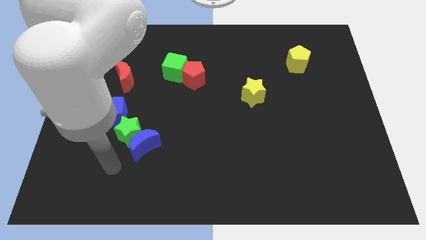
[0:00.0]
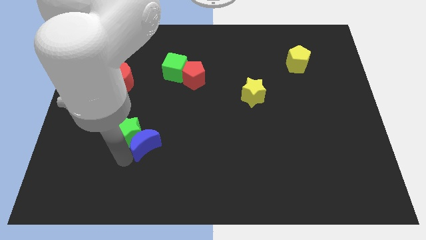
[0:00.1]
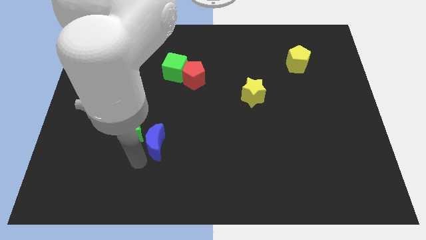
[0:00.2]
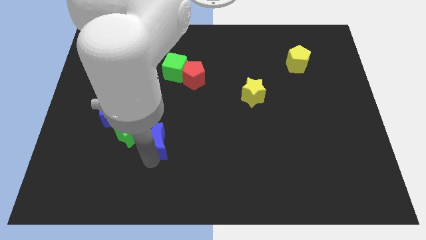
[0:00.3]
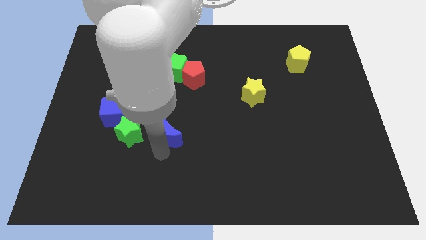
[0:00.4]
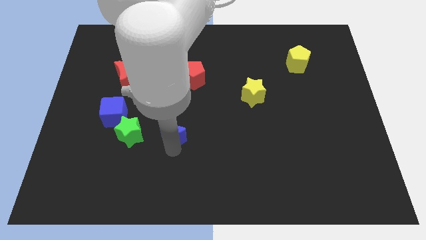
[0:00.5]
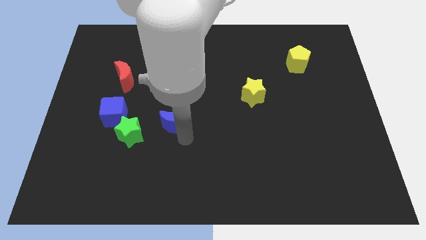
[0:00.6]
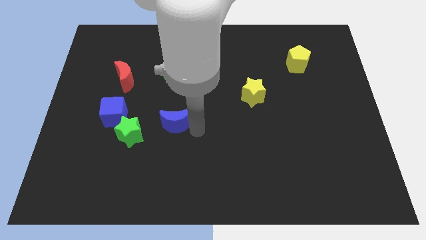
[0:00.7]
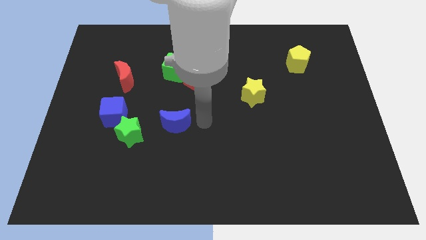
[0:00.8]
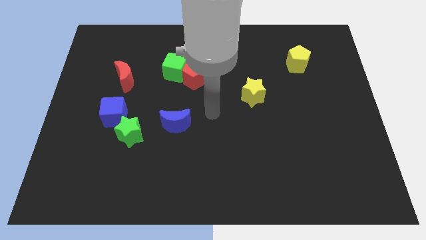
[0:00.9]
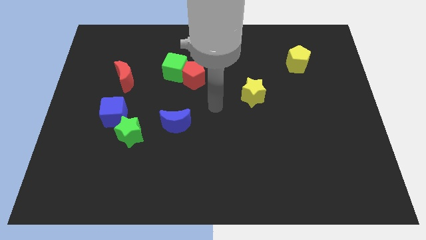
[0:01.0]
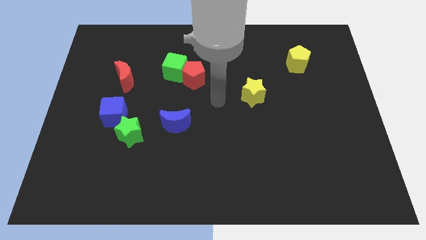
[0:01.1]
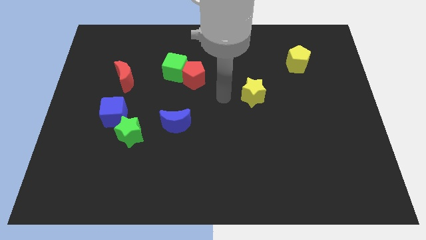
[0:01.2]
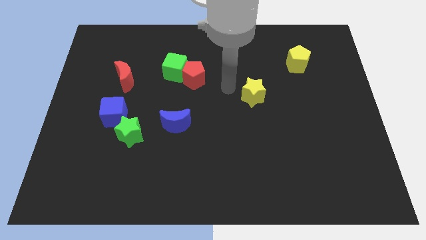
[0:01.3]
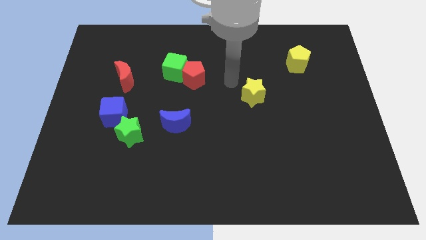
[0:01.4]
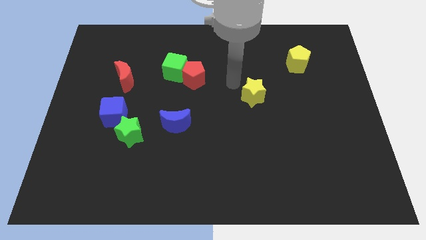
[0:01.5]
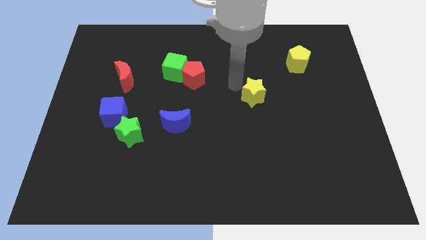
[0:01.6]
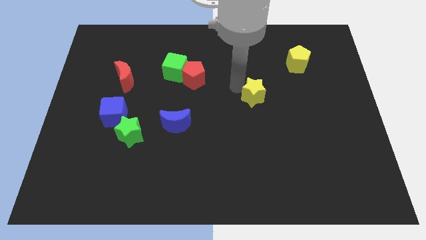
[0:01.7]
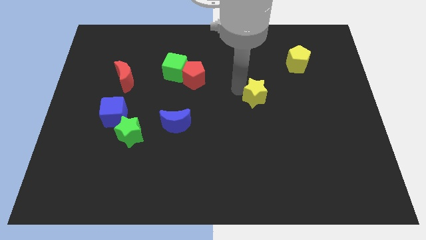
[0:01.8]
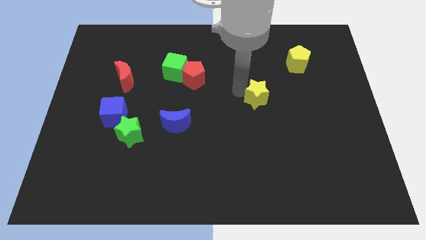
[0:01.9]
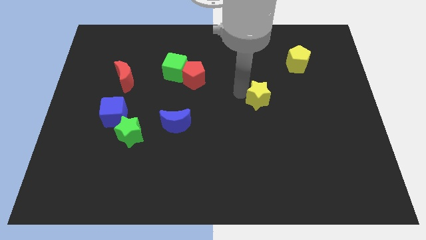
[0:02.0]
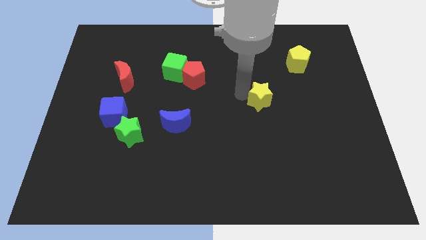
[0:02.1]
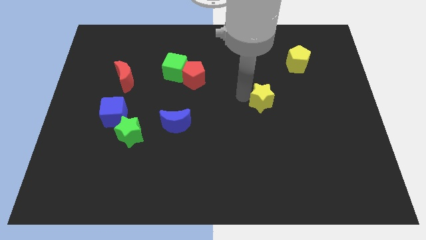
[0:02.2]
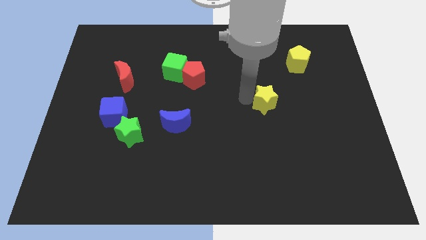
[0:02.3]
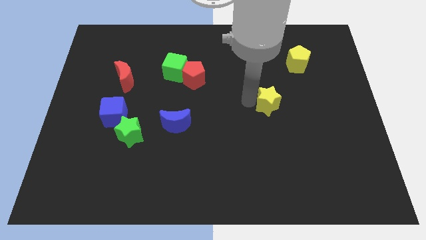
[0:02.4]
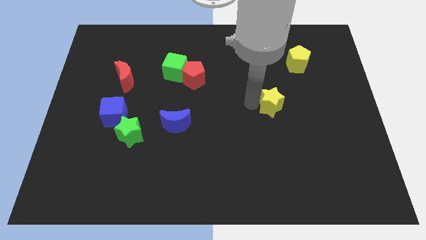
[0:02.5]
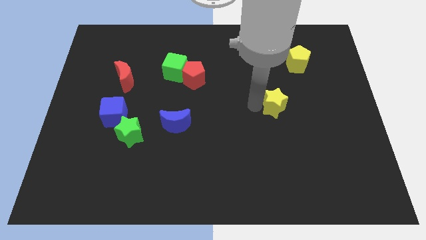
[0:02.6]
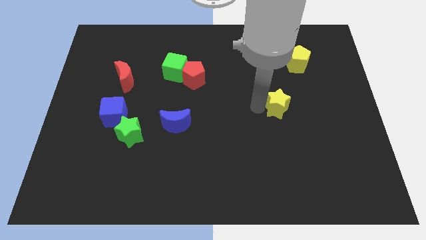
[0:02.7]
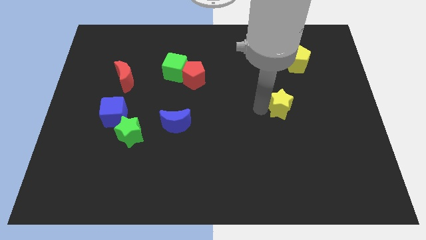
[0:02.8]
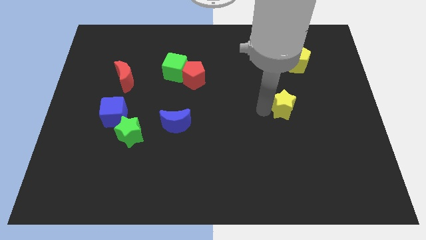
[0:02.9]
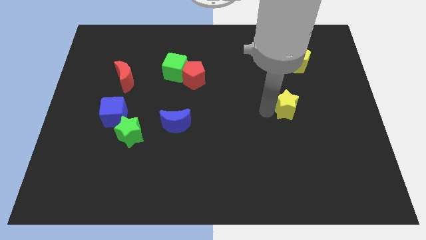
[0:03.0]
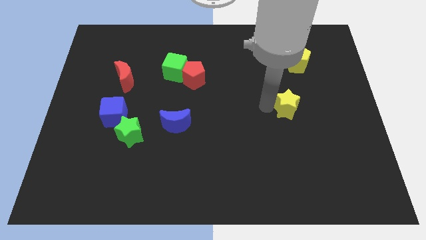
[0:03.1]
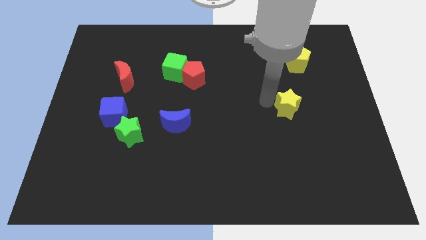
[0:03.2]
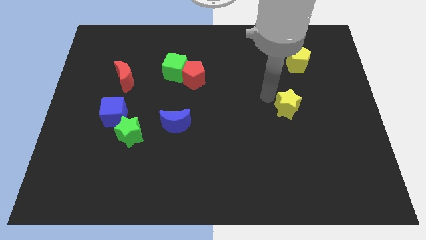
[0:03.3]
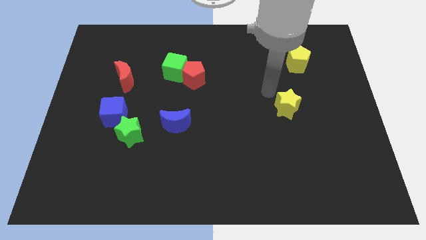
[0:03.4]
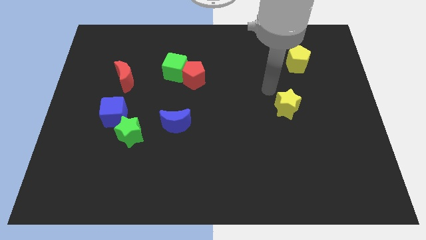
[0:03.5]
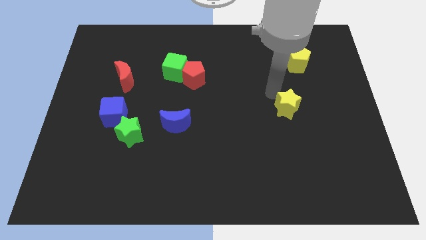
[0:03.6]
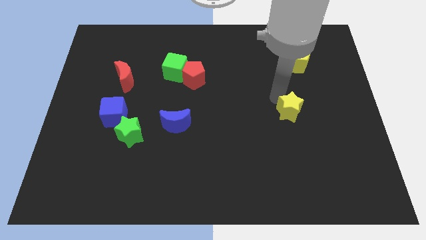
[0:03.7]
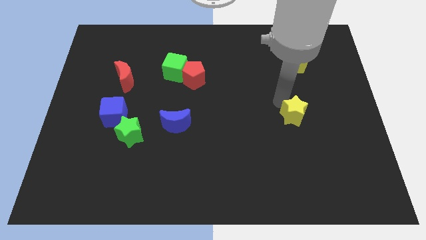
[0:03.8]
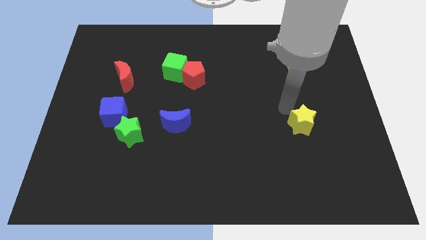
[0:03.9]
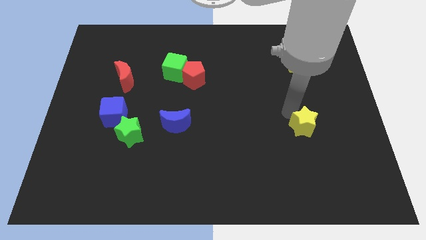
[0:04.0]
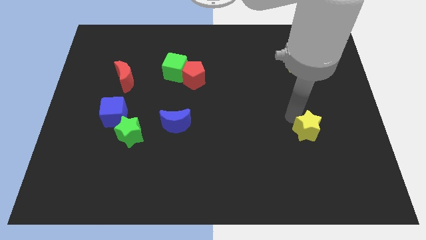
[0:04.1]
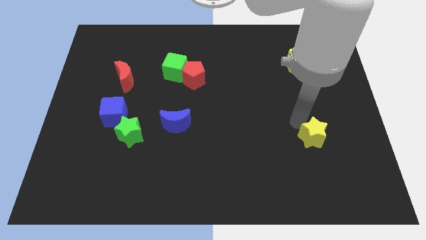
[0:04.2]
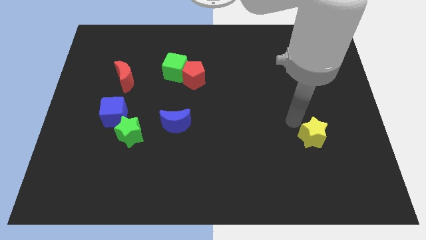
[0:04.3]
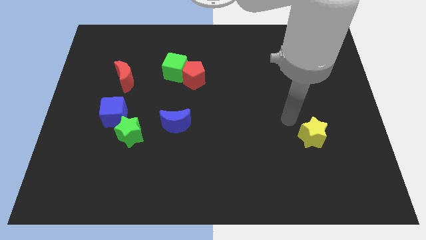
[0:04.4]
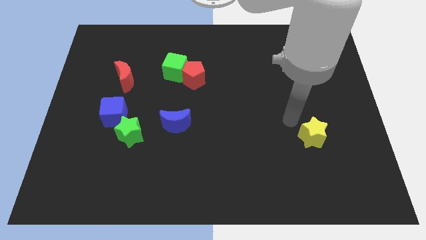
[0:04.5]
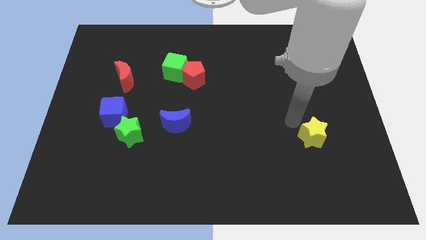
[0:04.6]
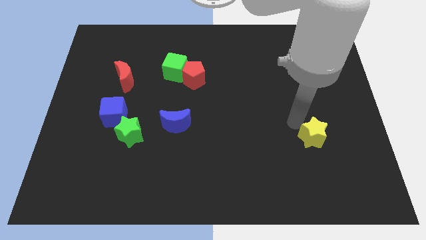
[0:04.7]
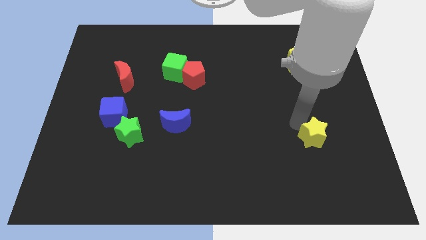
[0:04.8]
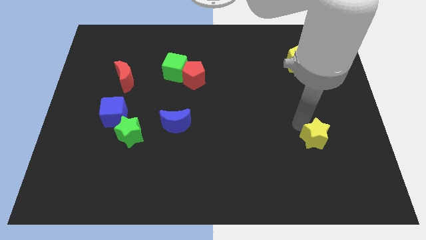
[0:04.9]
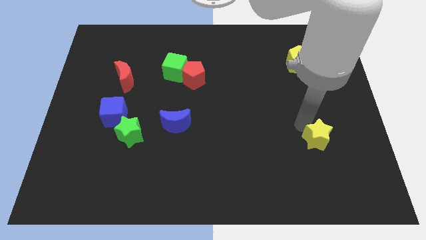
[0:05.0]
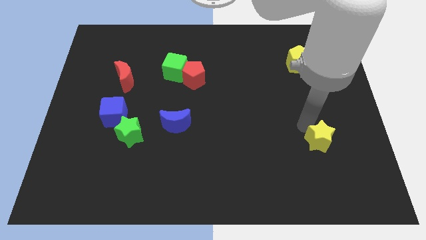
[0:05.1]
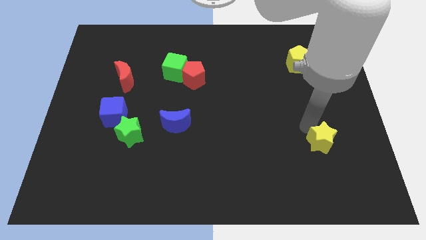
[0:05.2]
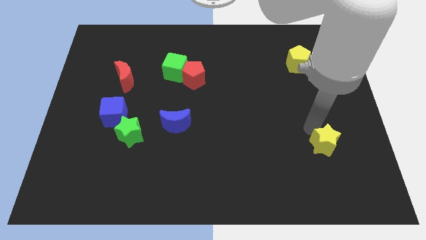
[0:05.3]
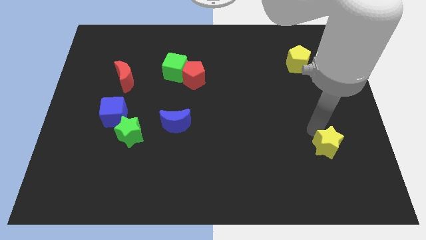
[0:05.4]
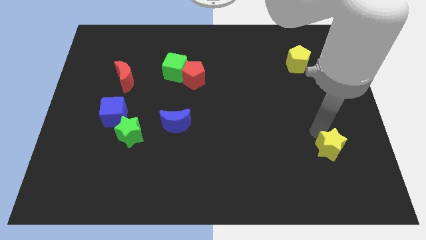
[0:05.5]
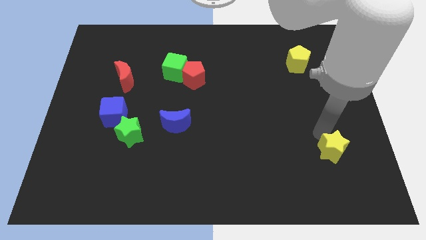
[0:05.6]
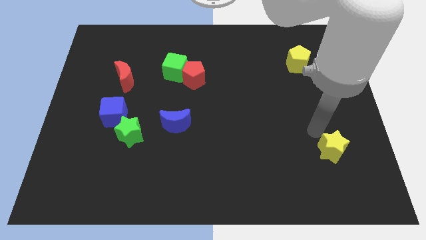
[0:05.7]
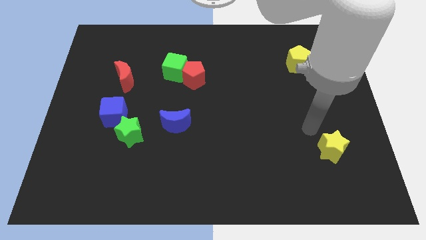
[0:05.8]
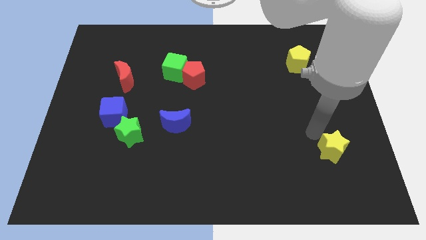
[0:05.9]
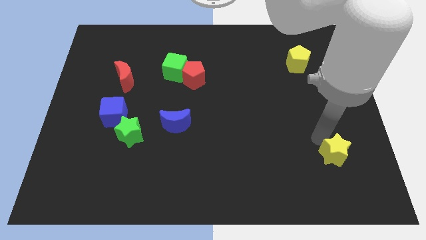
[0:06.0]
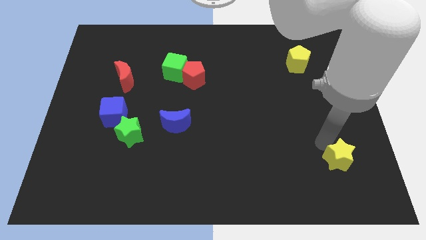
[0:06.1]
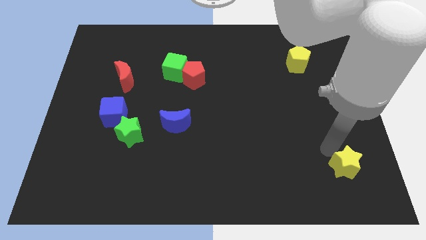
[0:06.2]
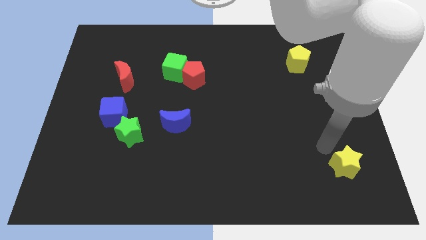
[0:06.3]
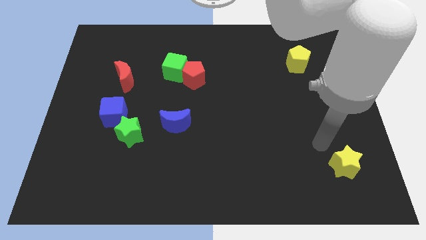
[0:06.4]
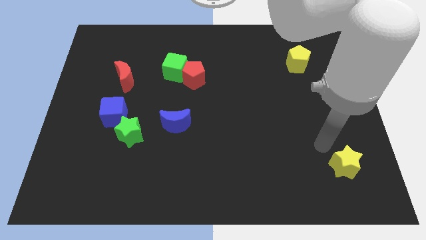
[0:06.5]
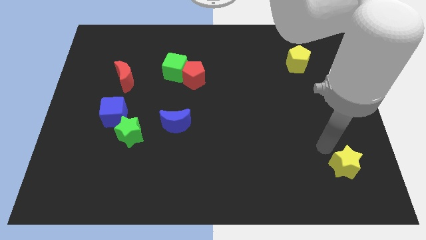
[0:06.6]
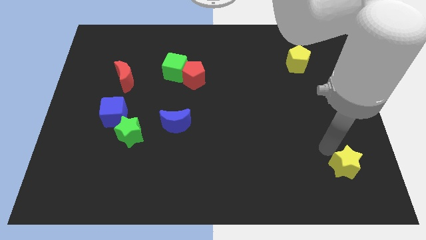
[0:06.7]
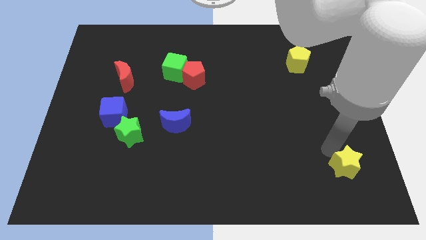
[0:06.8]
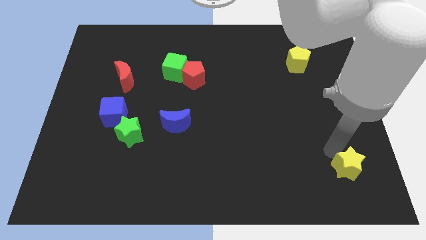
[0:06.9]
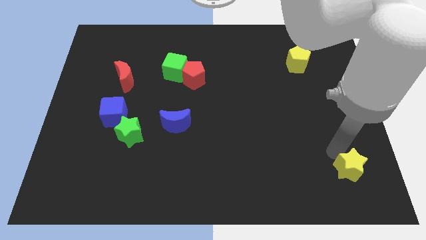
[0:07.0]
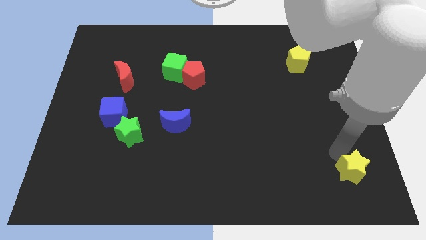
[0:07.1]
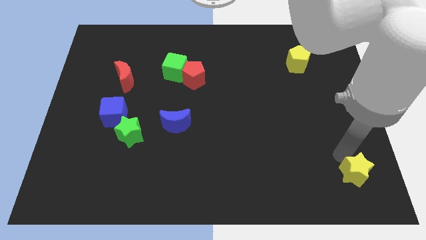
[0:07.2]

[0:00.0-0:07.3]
push the yellow star to the bottom right
